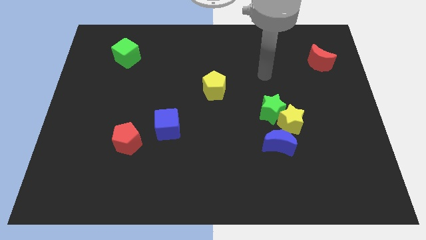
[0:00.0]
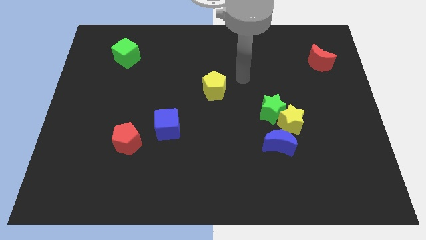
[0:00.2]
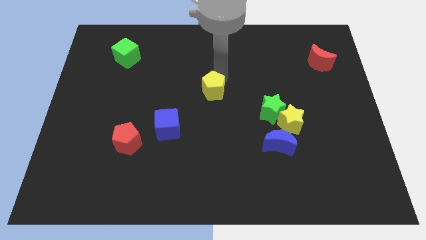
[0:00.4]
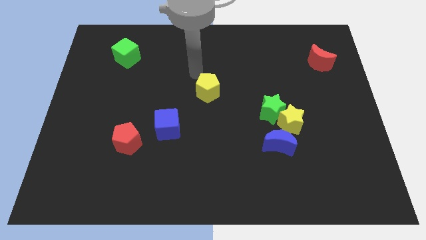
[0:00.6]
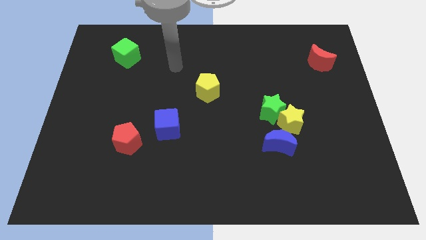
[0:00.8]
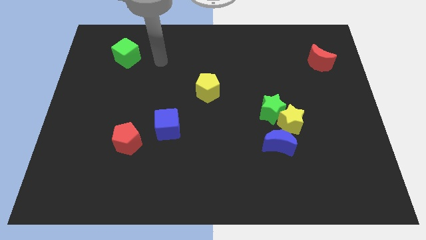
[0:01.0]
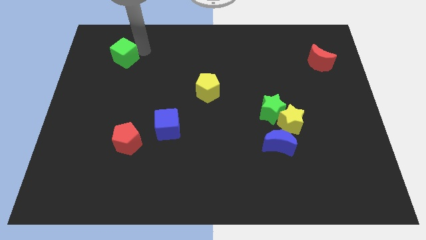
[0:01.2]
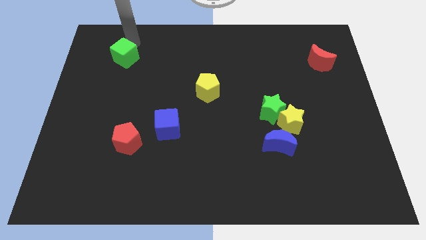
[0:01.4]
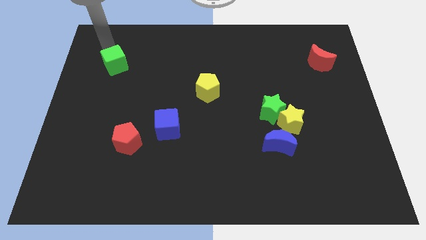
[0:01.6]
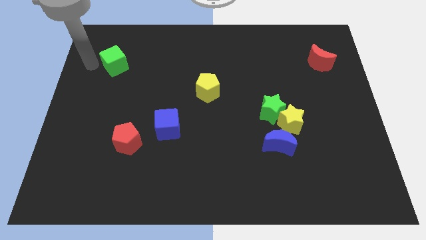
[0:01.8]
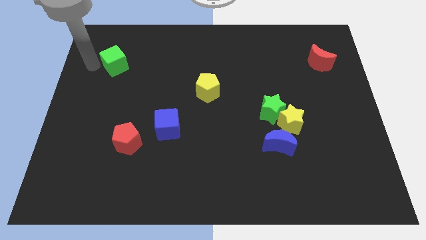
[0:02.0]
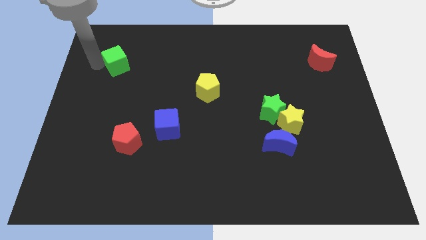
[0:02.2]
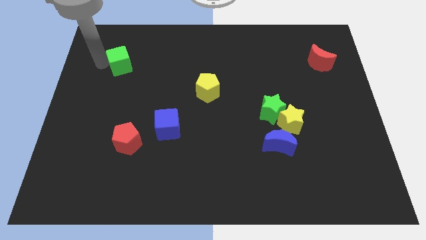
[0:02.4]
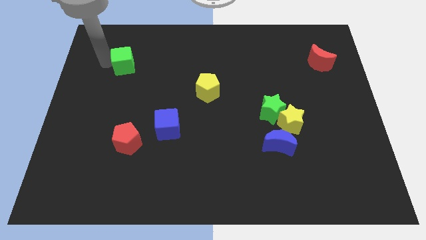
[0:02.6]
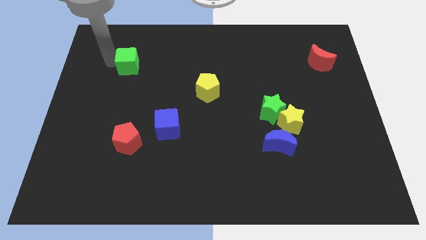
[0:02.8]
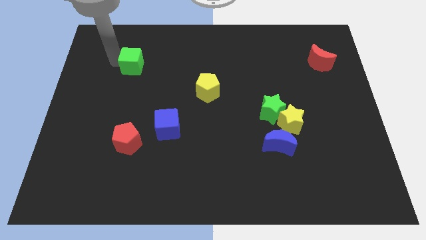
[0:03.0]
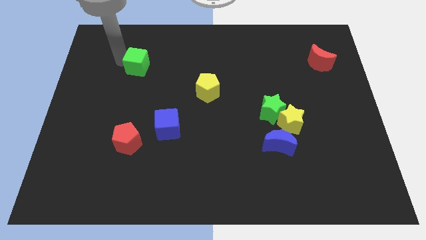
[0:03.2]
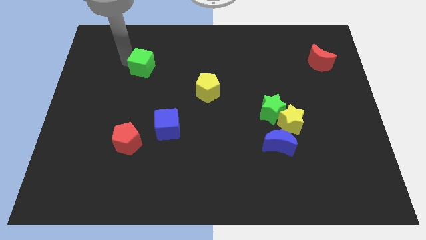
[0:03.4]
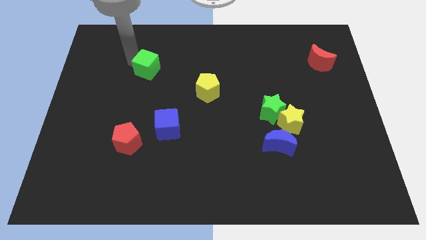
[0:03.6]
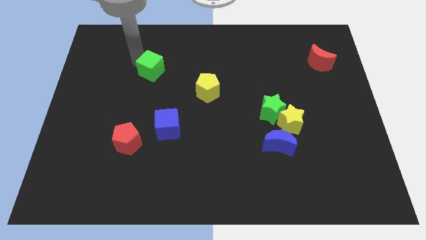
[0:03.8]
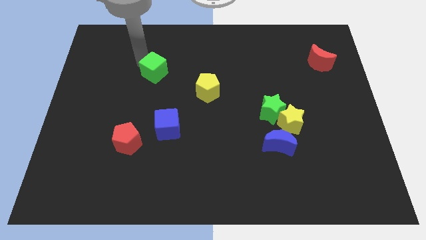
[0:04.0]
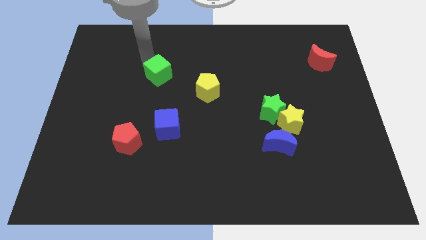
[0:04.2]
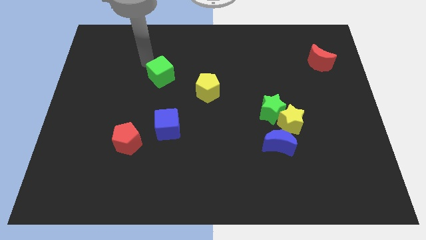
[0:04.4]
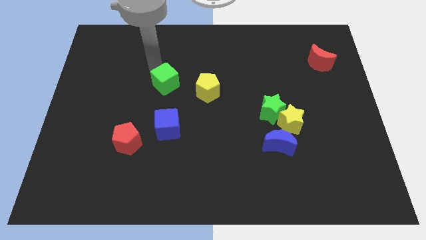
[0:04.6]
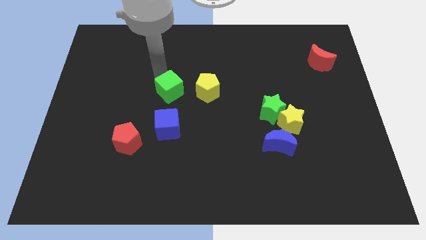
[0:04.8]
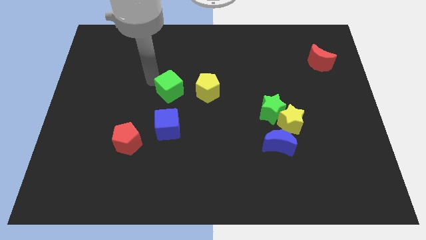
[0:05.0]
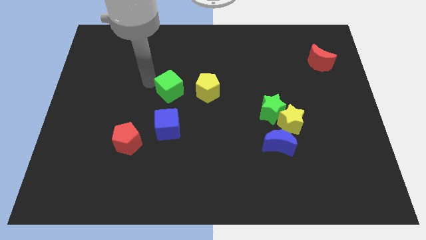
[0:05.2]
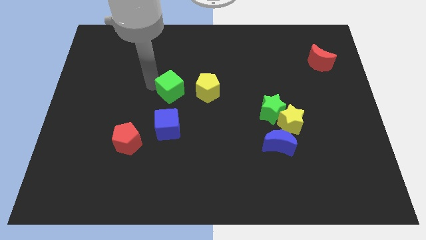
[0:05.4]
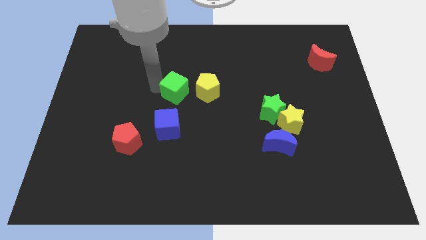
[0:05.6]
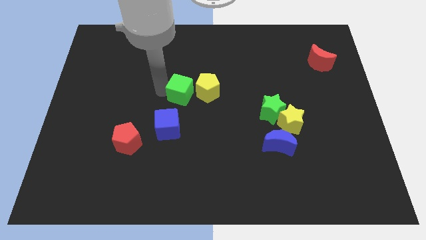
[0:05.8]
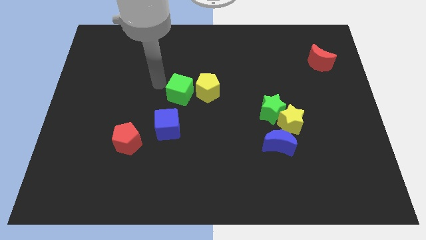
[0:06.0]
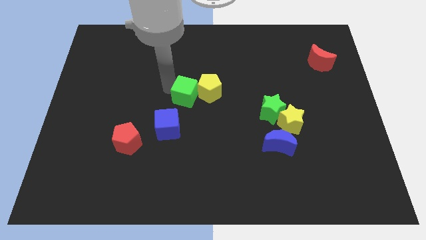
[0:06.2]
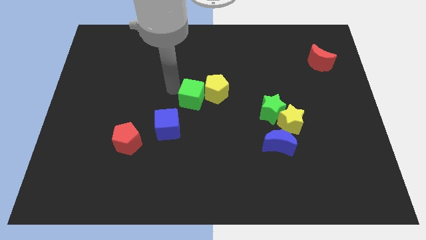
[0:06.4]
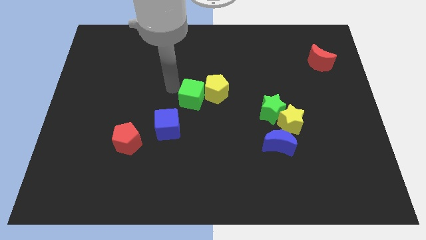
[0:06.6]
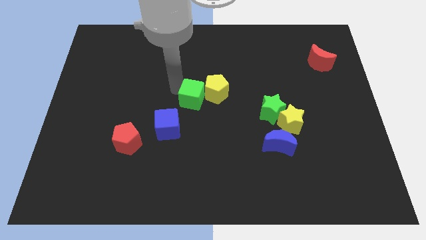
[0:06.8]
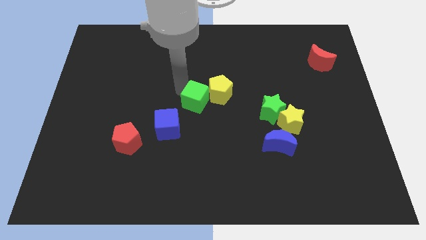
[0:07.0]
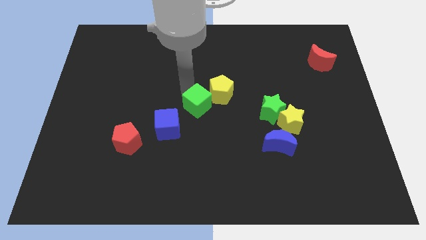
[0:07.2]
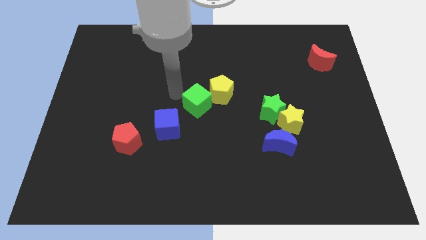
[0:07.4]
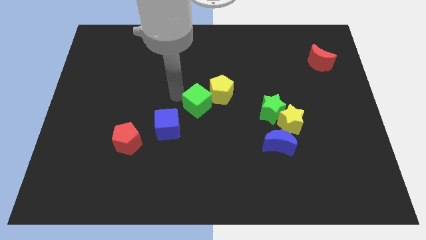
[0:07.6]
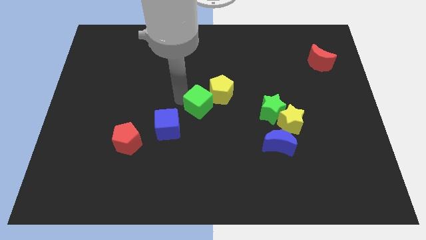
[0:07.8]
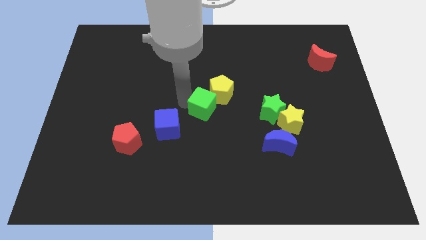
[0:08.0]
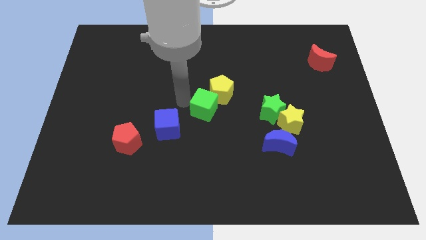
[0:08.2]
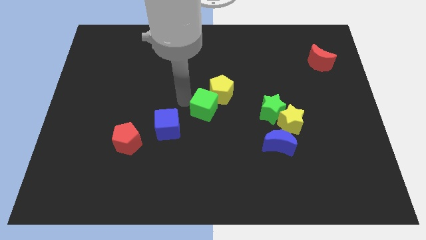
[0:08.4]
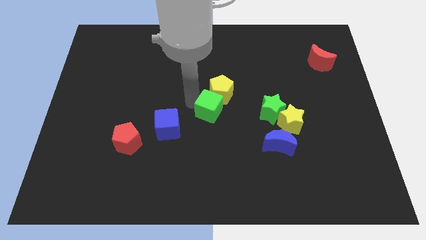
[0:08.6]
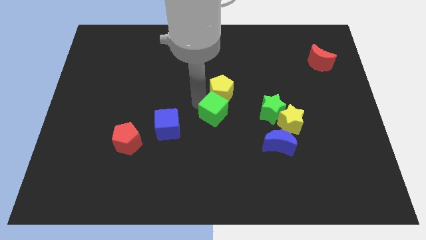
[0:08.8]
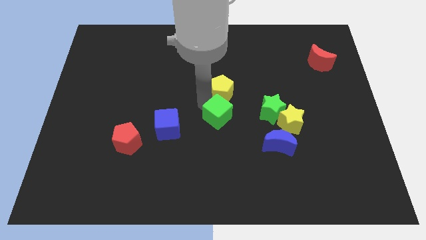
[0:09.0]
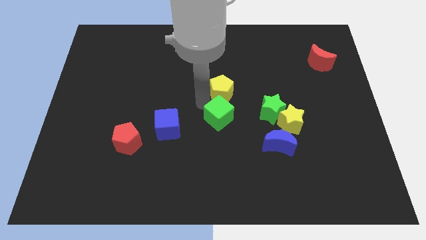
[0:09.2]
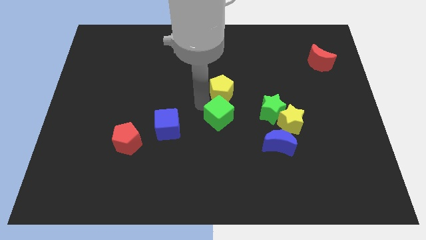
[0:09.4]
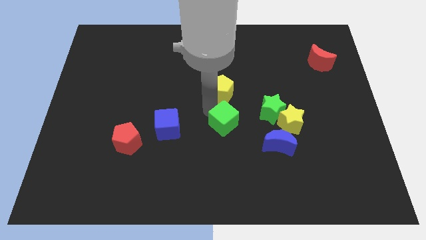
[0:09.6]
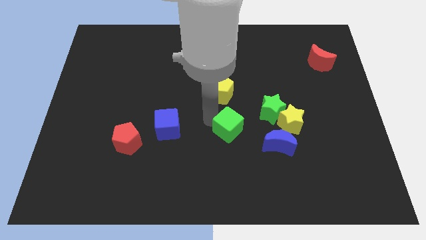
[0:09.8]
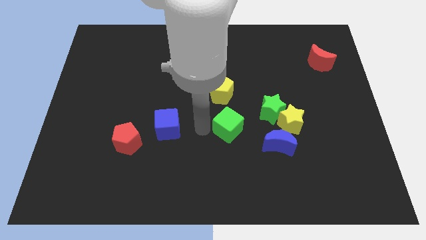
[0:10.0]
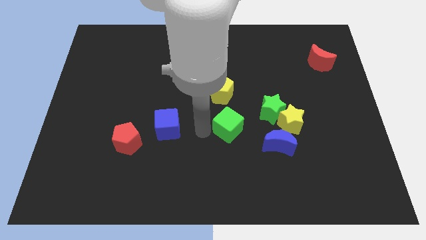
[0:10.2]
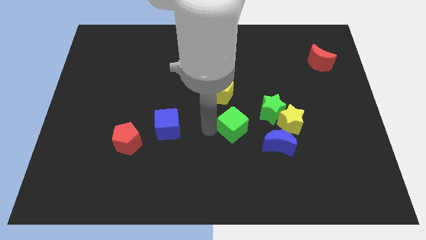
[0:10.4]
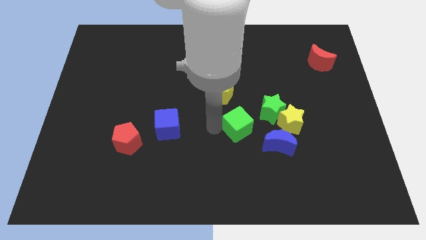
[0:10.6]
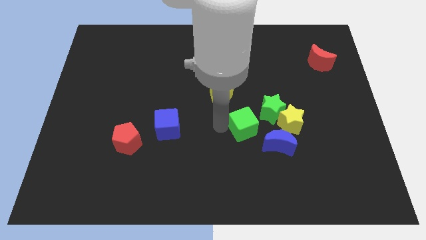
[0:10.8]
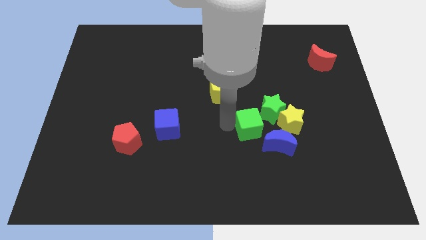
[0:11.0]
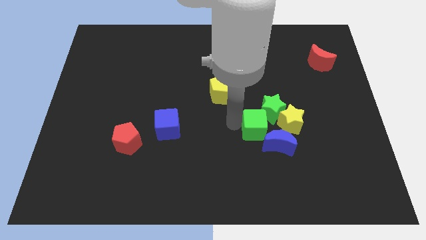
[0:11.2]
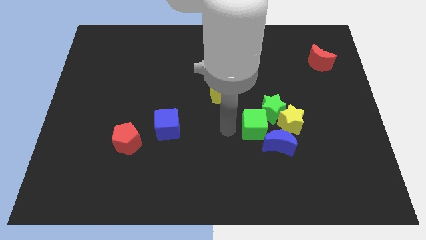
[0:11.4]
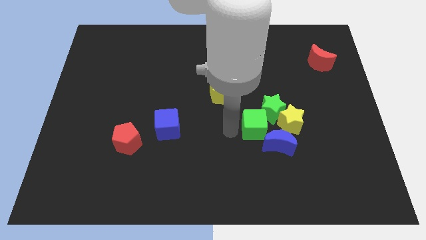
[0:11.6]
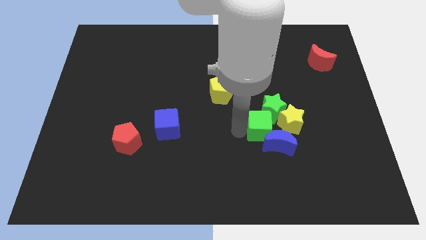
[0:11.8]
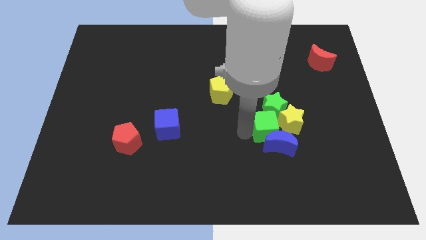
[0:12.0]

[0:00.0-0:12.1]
put the green cube towards the yellow star
